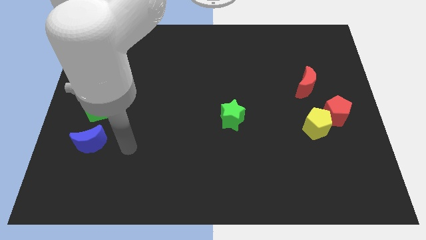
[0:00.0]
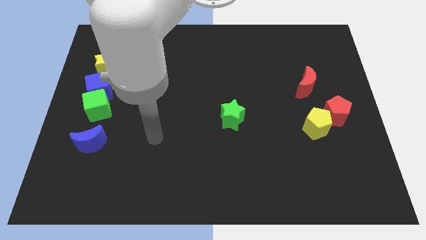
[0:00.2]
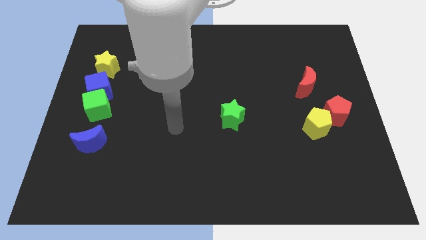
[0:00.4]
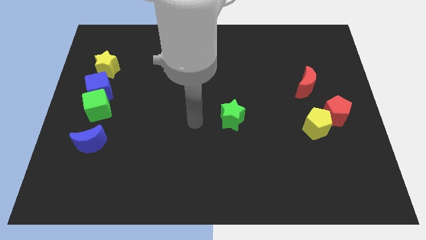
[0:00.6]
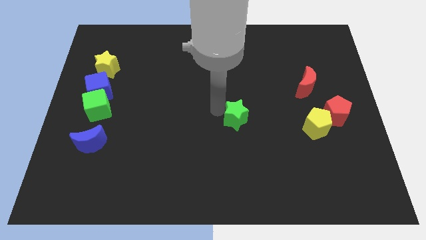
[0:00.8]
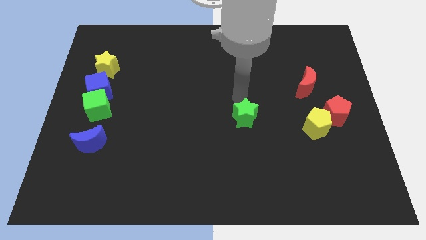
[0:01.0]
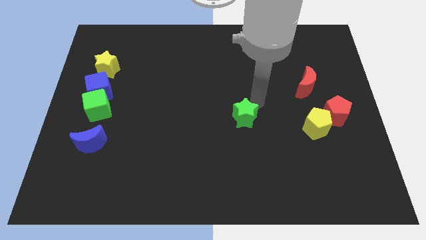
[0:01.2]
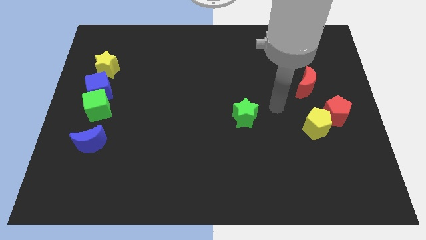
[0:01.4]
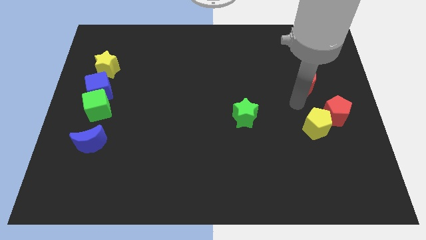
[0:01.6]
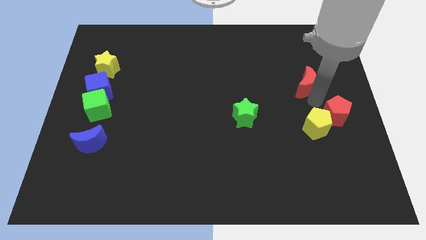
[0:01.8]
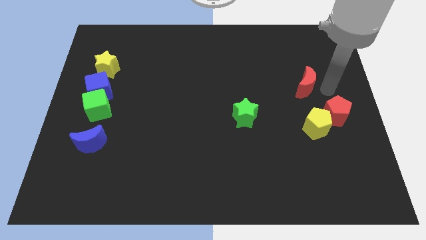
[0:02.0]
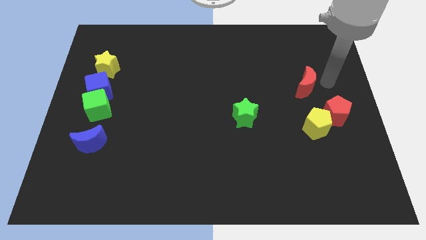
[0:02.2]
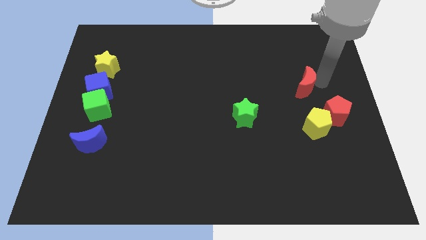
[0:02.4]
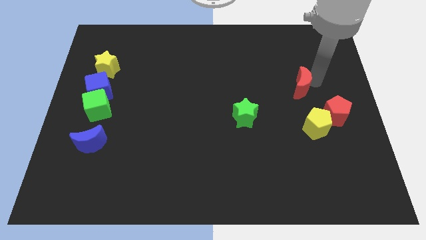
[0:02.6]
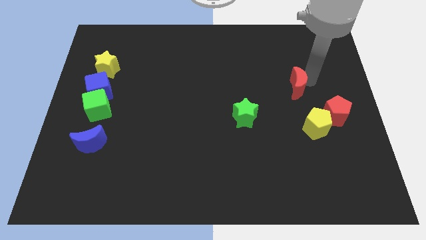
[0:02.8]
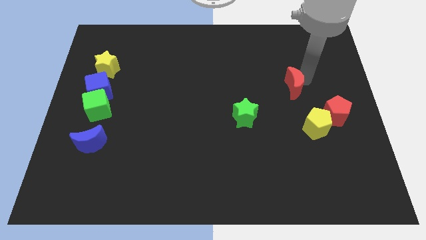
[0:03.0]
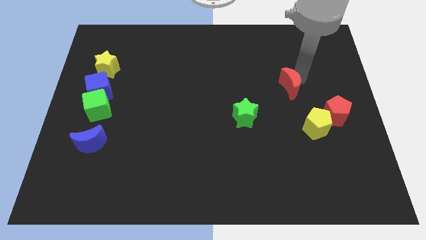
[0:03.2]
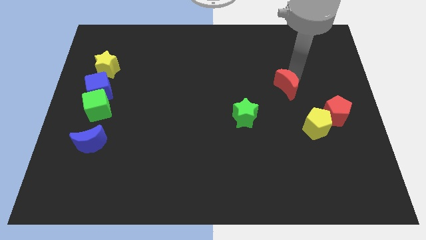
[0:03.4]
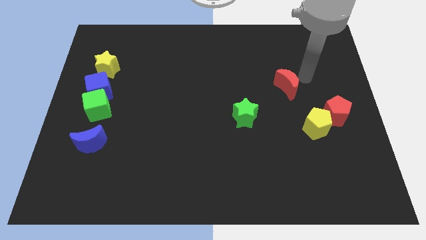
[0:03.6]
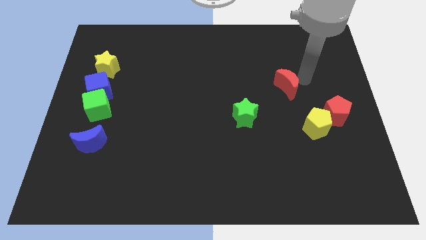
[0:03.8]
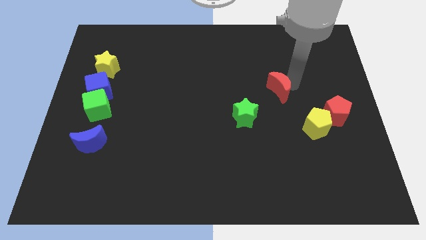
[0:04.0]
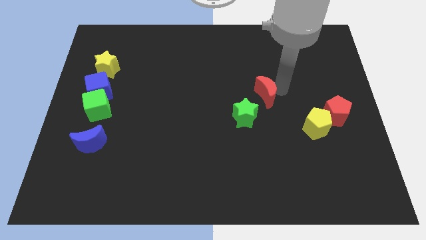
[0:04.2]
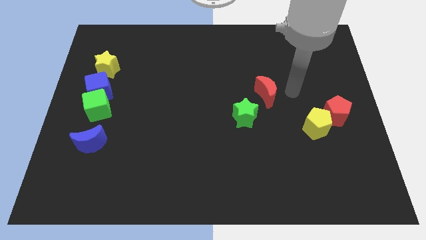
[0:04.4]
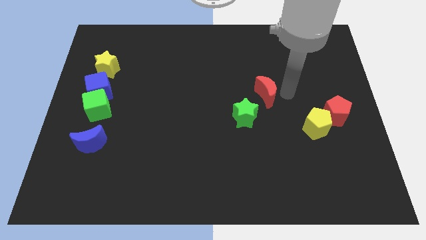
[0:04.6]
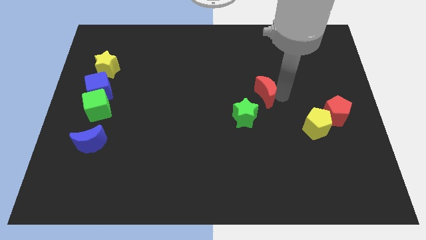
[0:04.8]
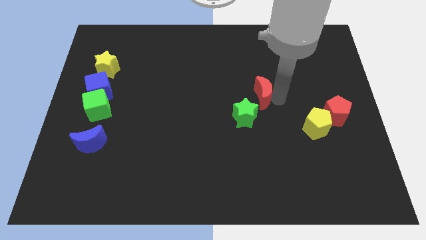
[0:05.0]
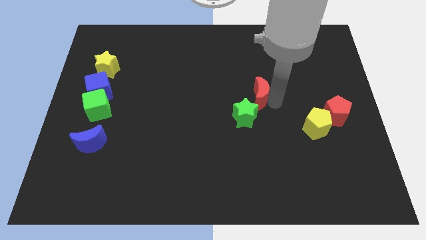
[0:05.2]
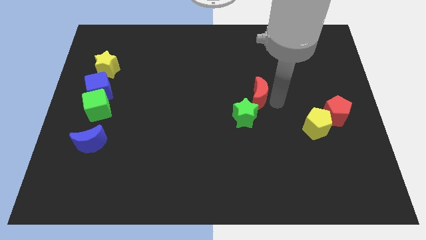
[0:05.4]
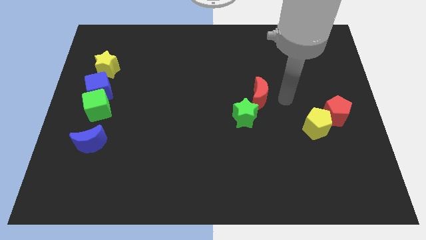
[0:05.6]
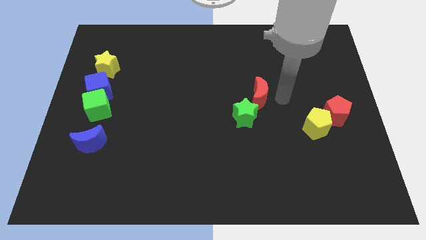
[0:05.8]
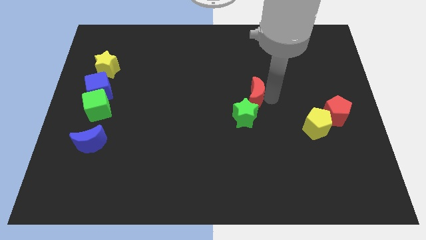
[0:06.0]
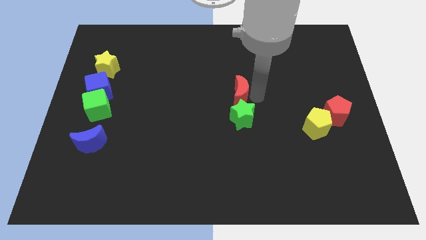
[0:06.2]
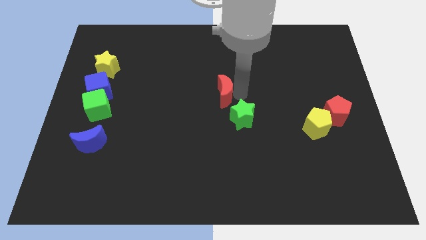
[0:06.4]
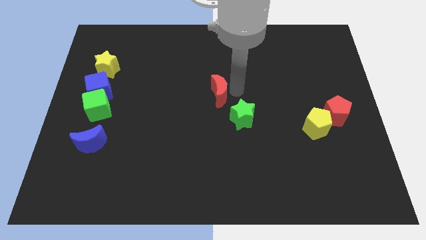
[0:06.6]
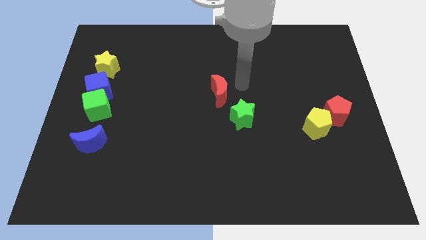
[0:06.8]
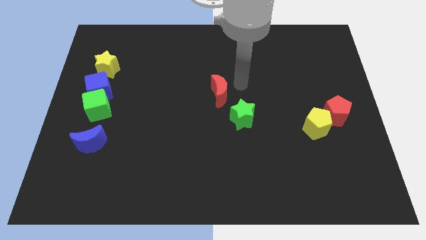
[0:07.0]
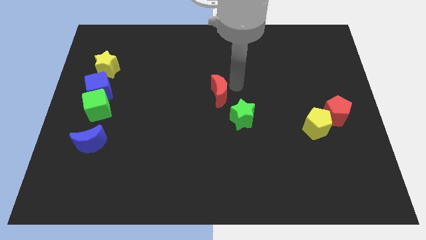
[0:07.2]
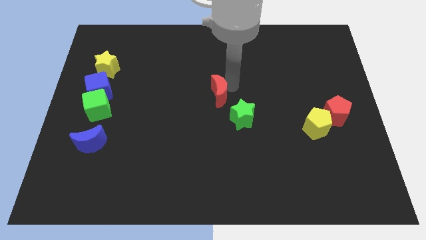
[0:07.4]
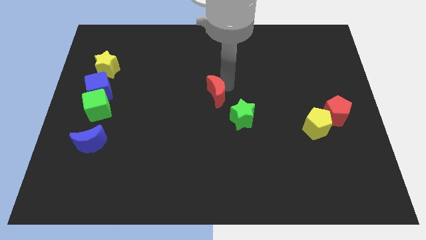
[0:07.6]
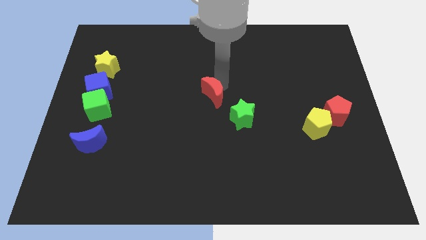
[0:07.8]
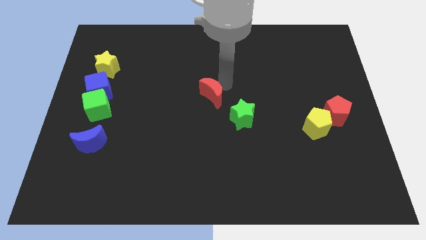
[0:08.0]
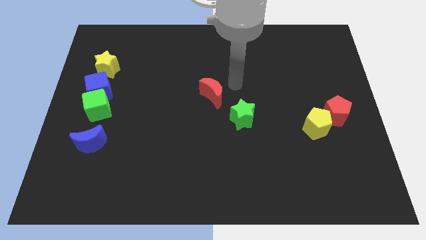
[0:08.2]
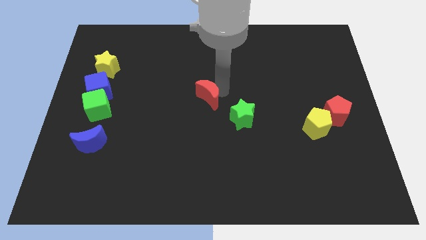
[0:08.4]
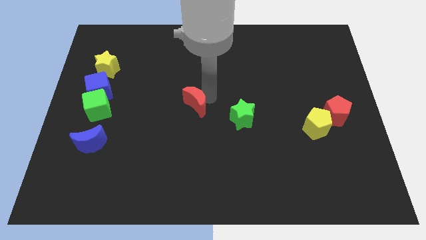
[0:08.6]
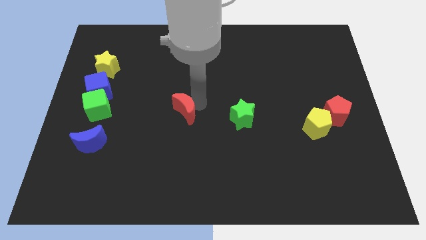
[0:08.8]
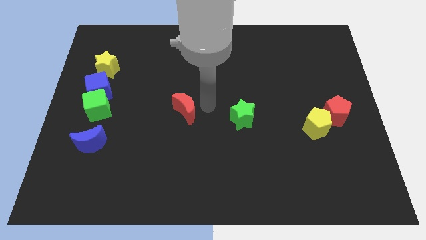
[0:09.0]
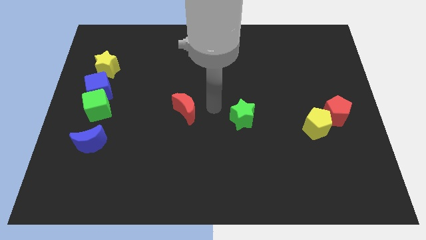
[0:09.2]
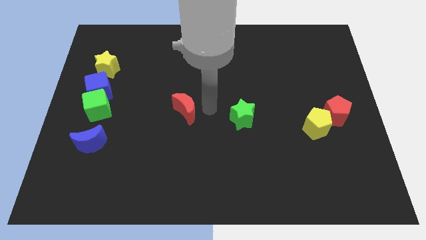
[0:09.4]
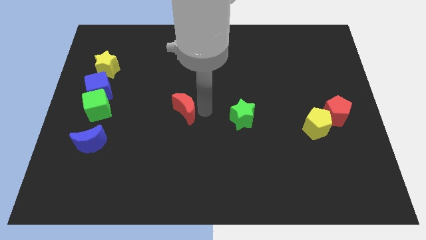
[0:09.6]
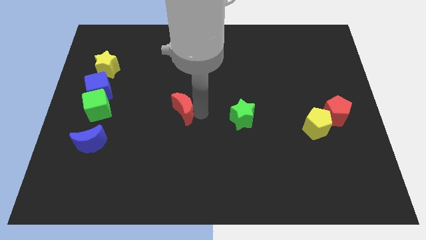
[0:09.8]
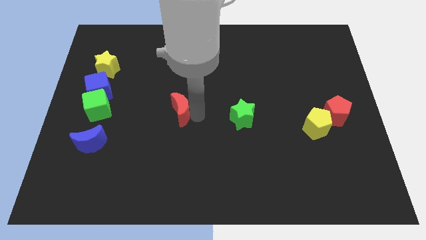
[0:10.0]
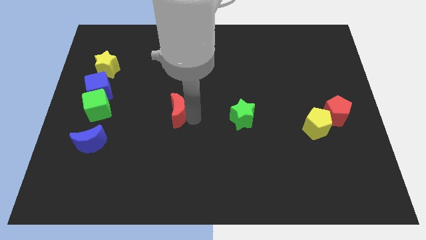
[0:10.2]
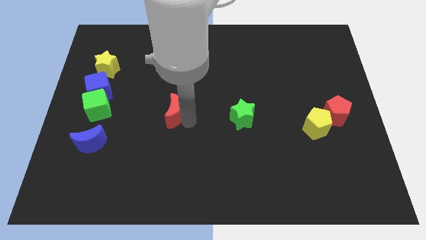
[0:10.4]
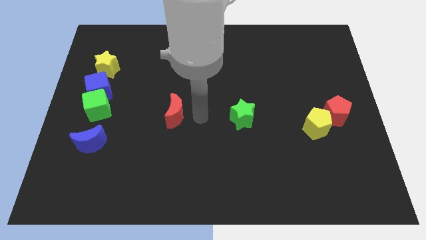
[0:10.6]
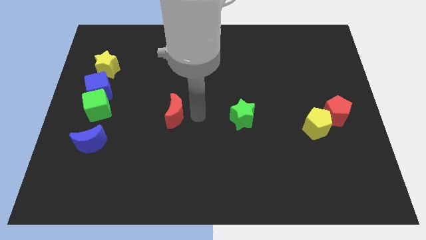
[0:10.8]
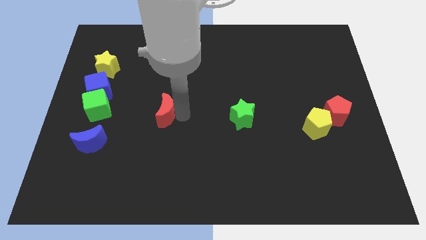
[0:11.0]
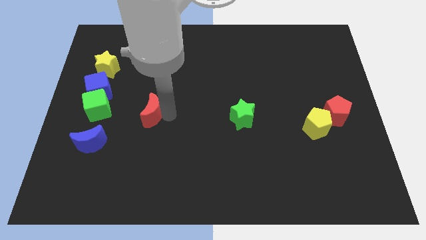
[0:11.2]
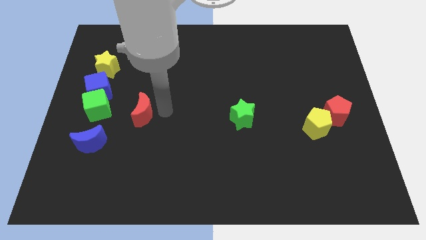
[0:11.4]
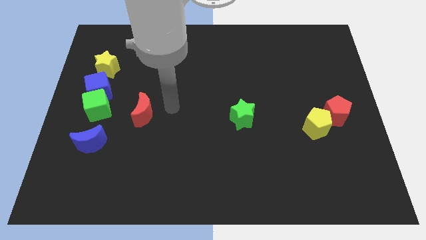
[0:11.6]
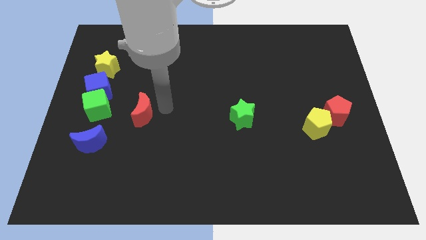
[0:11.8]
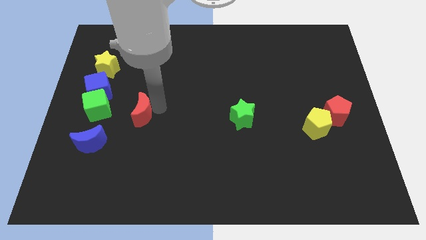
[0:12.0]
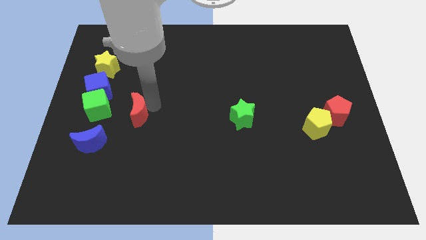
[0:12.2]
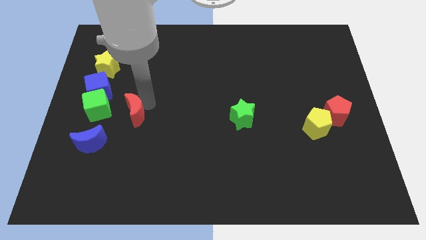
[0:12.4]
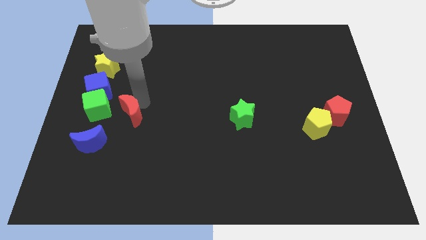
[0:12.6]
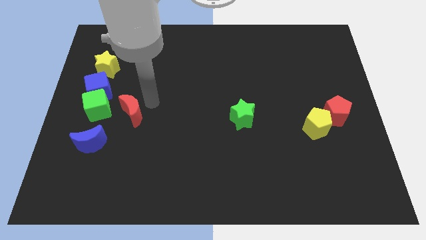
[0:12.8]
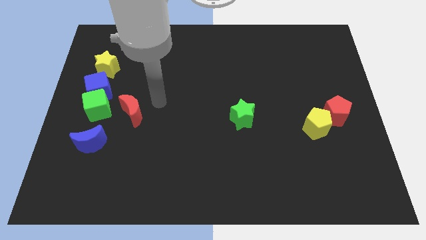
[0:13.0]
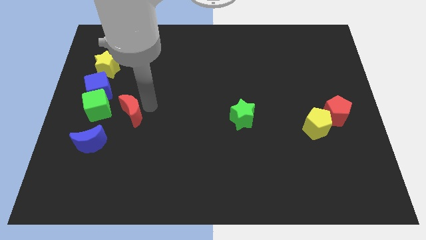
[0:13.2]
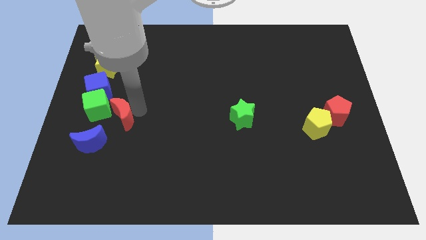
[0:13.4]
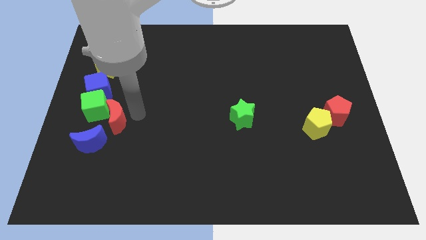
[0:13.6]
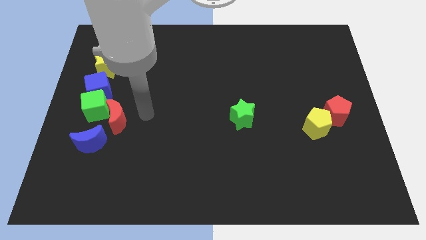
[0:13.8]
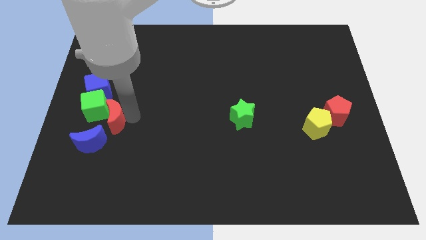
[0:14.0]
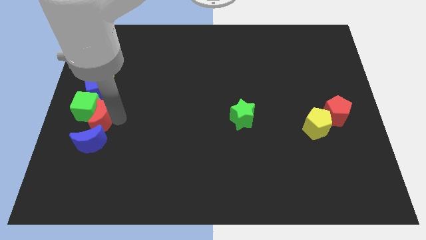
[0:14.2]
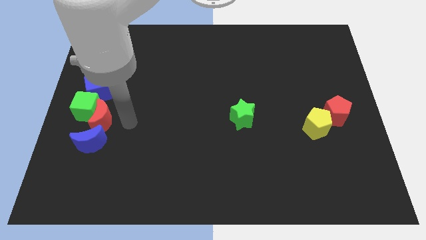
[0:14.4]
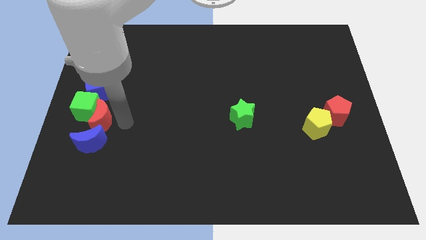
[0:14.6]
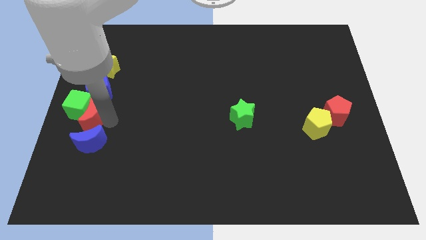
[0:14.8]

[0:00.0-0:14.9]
slide the red moon to the left side
